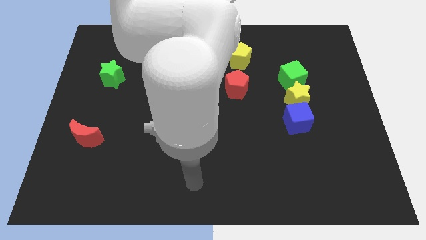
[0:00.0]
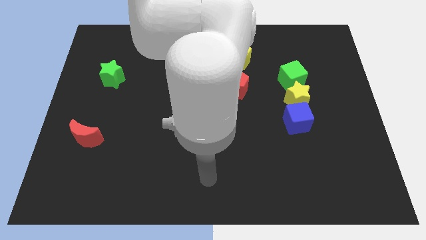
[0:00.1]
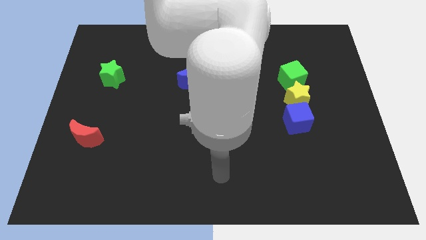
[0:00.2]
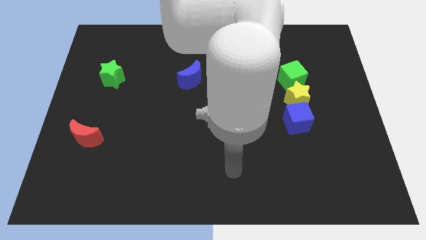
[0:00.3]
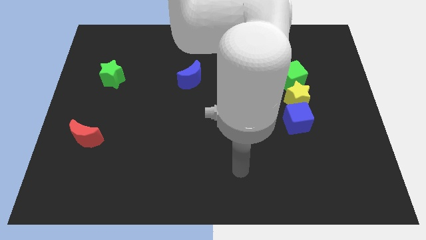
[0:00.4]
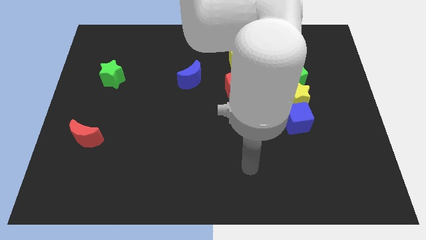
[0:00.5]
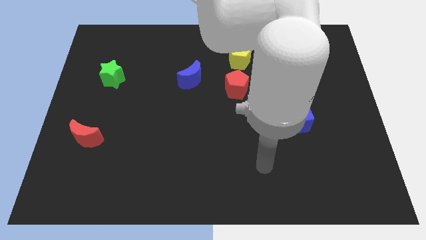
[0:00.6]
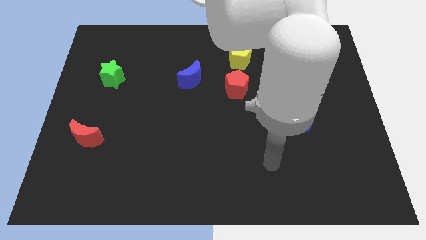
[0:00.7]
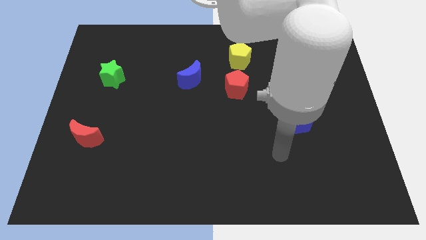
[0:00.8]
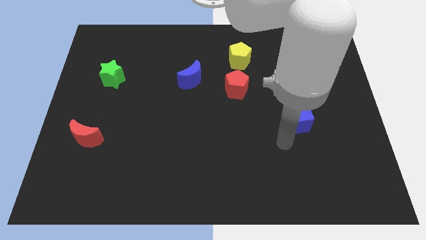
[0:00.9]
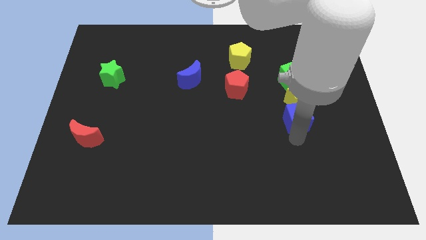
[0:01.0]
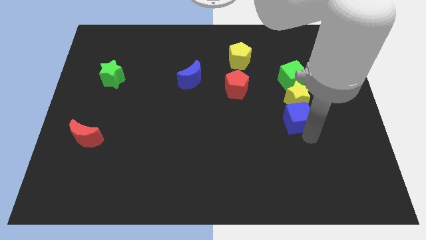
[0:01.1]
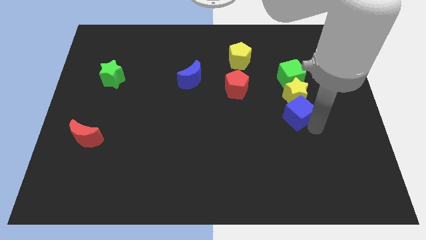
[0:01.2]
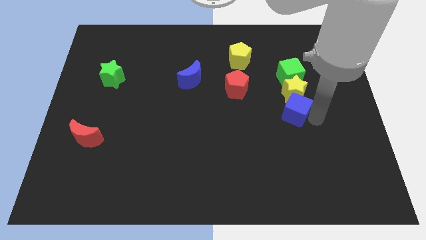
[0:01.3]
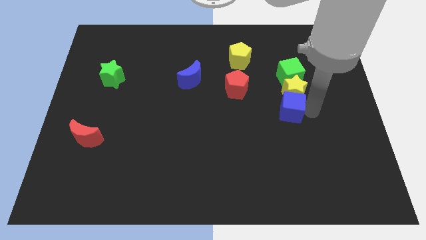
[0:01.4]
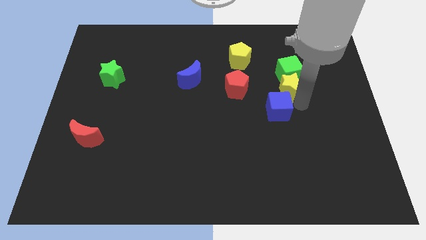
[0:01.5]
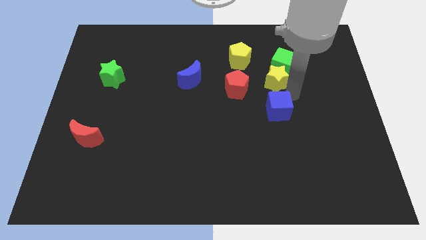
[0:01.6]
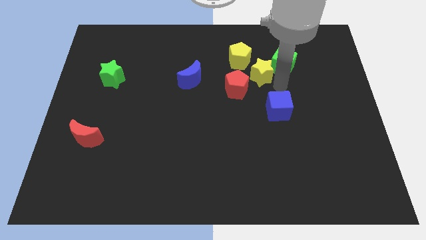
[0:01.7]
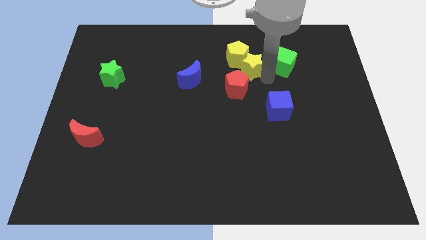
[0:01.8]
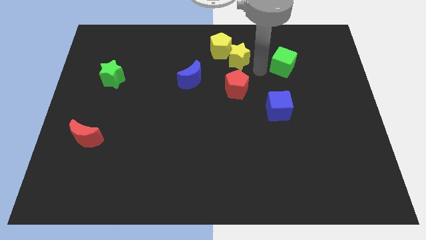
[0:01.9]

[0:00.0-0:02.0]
pull the green cube apart from the yellow star

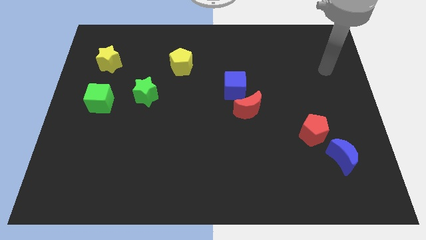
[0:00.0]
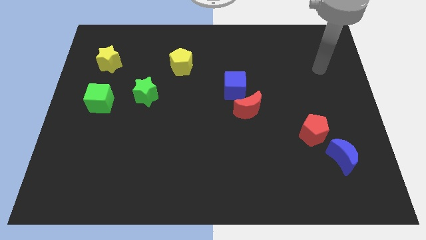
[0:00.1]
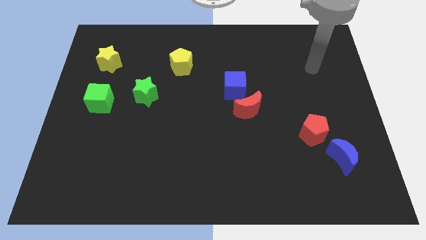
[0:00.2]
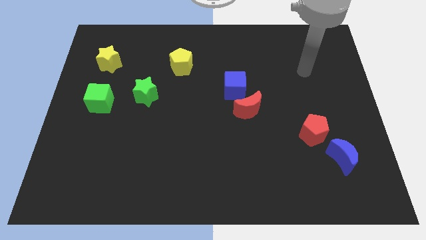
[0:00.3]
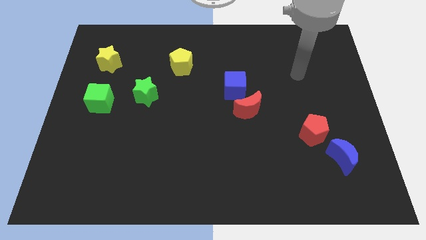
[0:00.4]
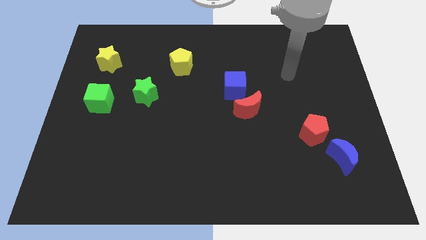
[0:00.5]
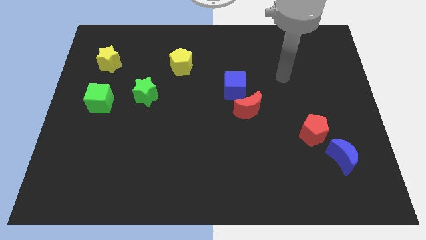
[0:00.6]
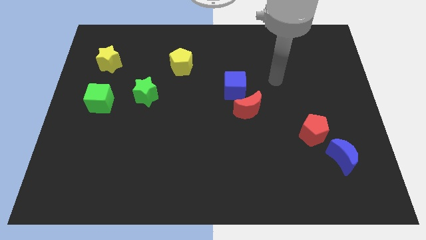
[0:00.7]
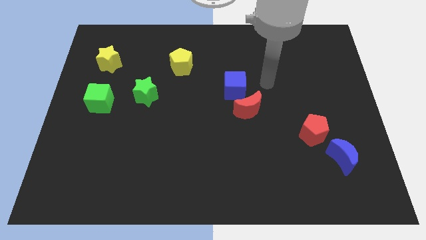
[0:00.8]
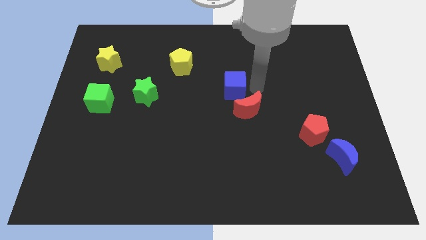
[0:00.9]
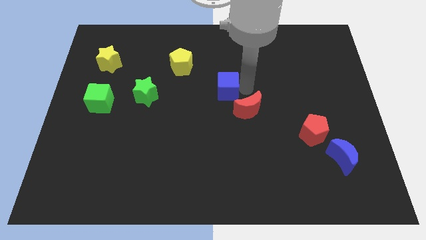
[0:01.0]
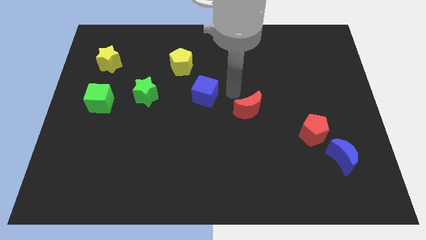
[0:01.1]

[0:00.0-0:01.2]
separate the red moon from the blue cube

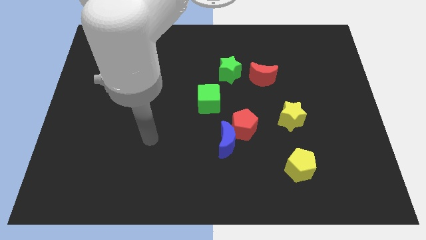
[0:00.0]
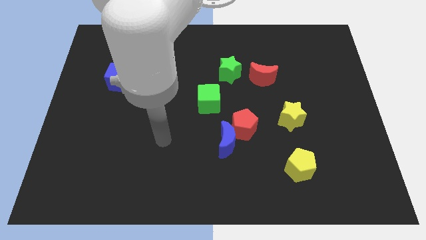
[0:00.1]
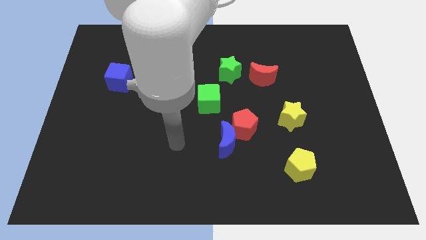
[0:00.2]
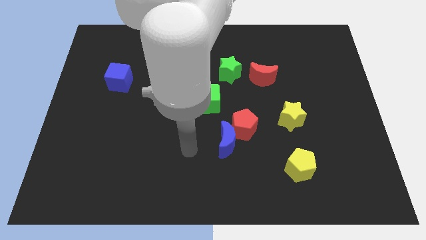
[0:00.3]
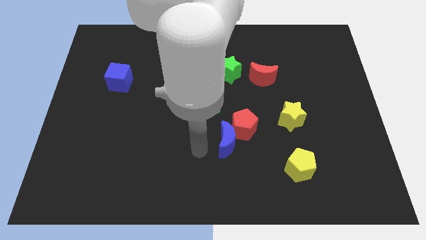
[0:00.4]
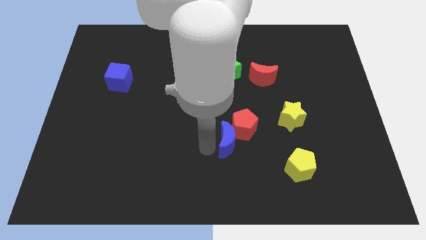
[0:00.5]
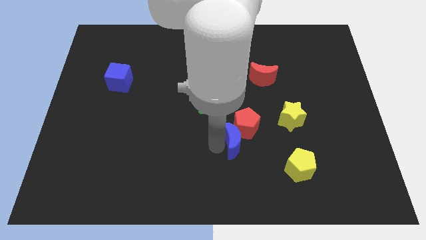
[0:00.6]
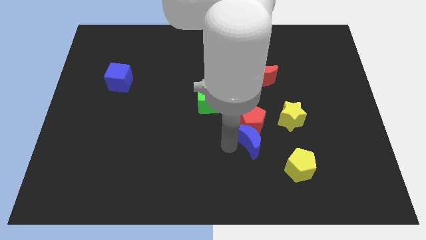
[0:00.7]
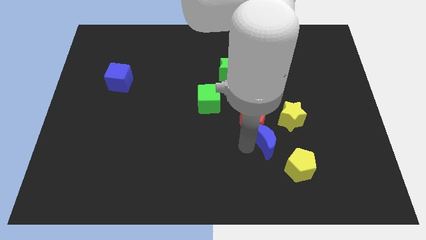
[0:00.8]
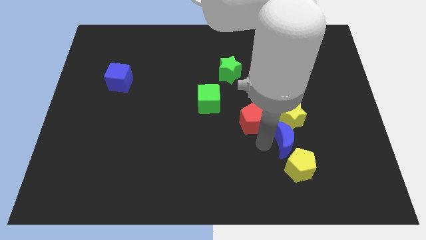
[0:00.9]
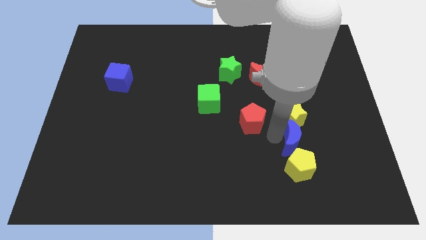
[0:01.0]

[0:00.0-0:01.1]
separate the red pentagon from the blue moon

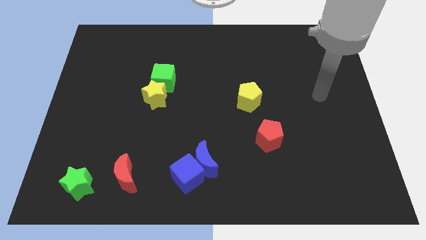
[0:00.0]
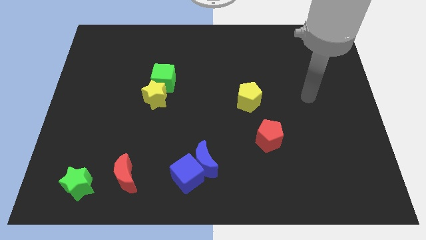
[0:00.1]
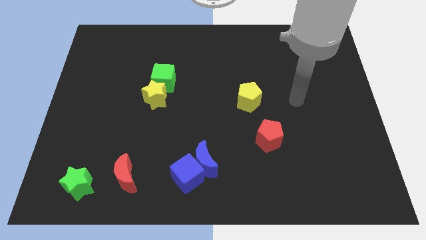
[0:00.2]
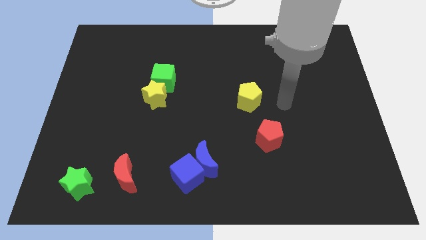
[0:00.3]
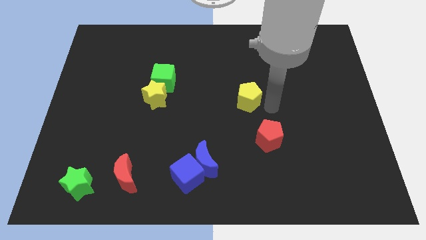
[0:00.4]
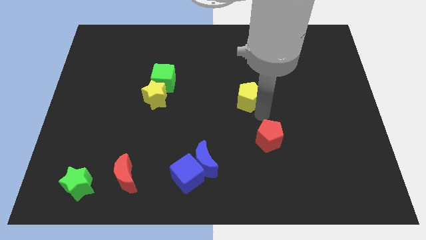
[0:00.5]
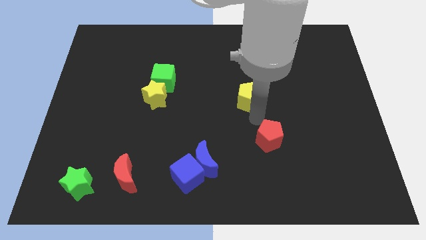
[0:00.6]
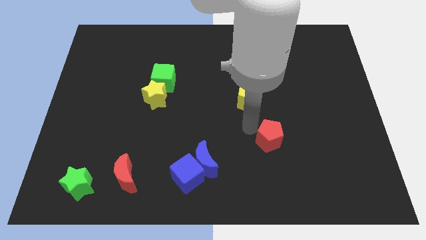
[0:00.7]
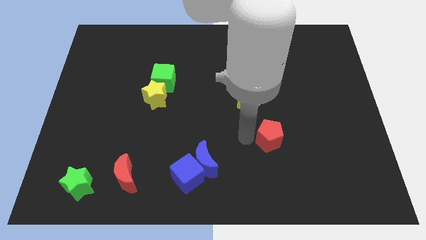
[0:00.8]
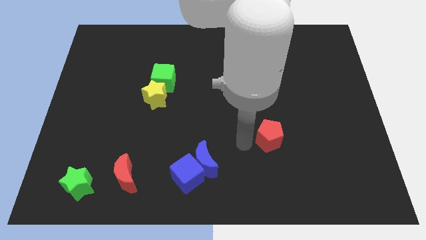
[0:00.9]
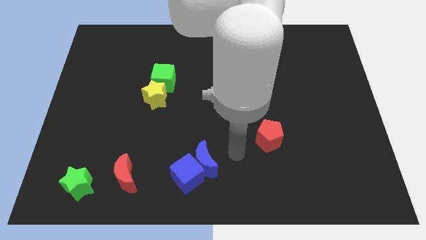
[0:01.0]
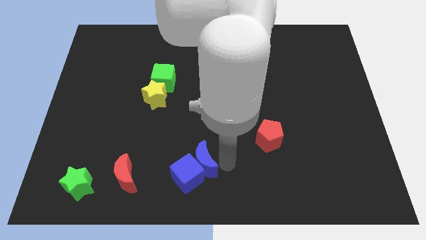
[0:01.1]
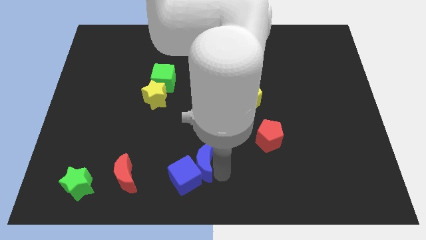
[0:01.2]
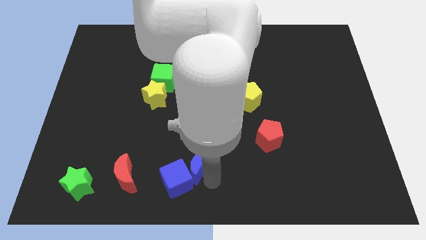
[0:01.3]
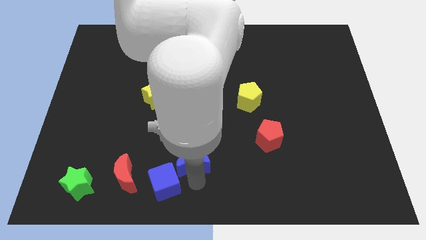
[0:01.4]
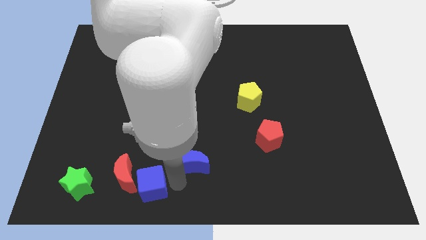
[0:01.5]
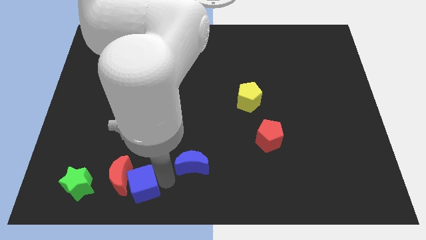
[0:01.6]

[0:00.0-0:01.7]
move the blue moon away from the blue cube

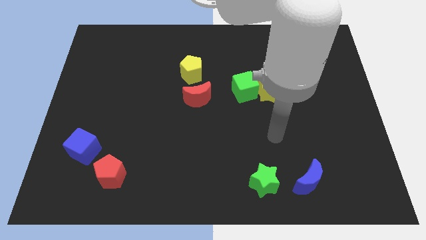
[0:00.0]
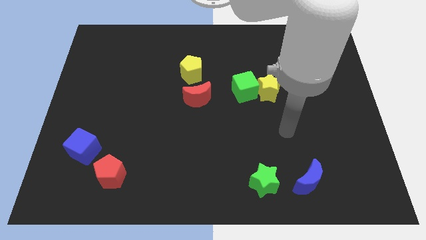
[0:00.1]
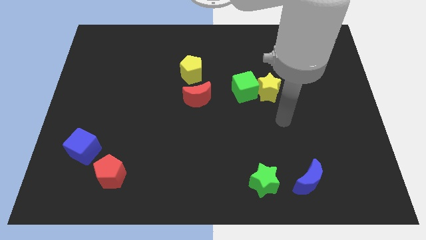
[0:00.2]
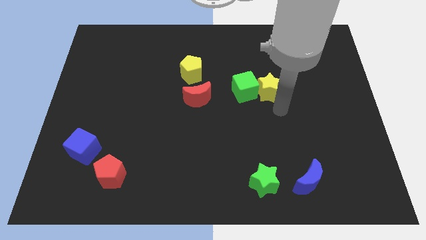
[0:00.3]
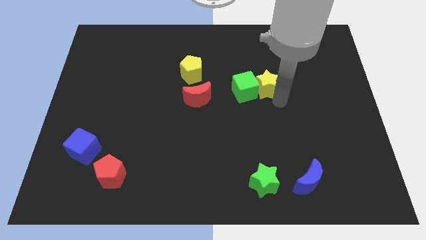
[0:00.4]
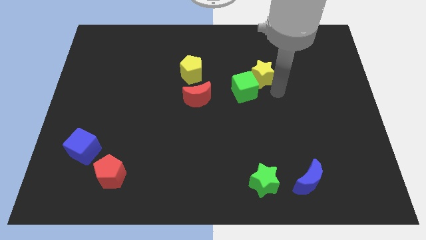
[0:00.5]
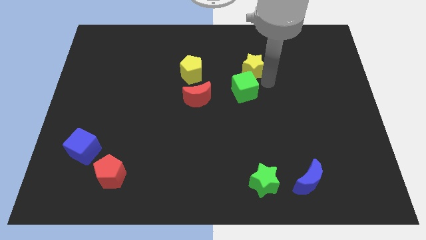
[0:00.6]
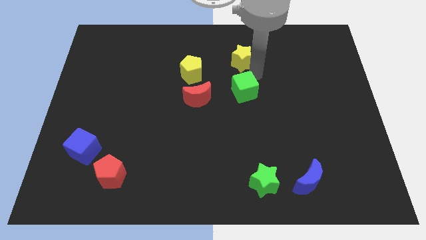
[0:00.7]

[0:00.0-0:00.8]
move the green cube away from the yellow star

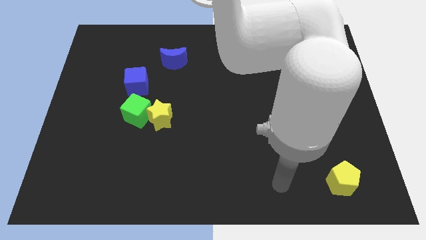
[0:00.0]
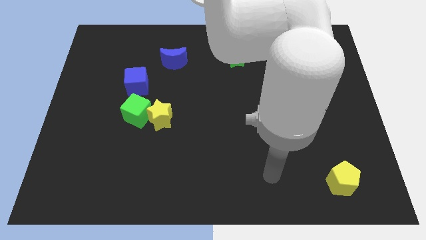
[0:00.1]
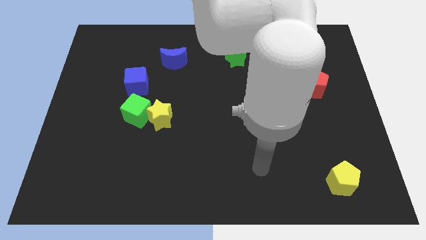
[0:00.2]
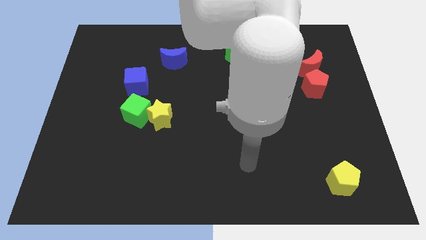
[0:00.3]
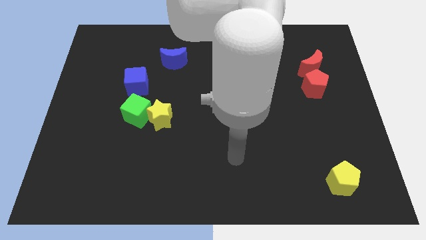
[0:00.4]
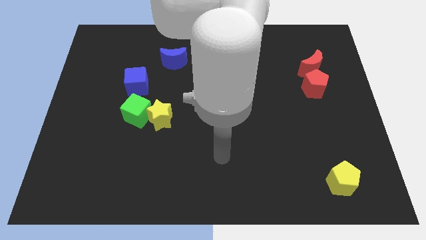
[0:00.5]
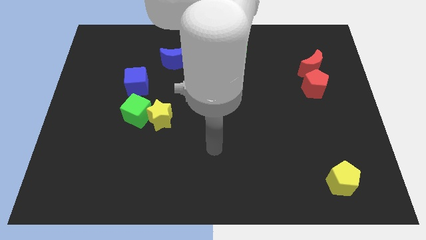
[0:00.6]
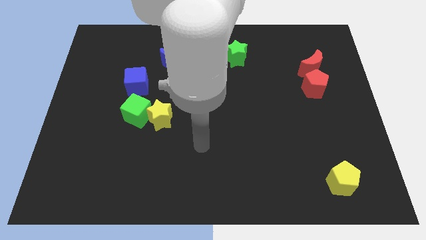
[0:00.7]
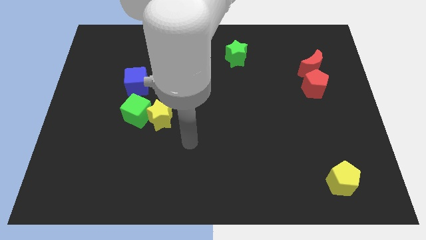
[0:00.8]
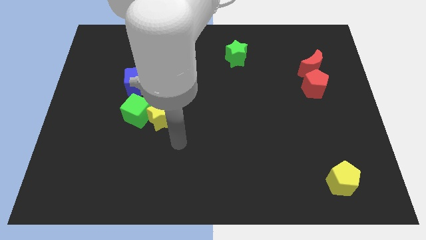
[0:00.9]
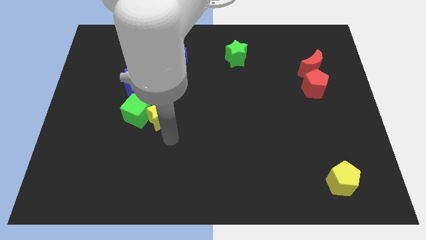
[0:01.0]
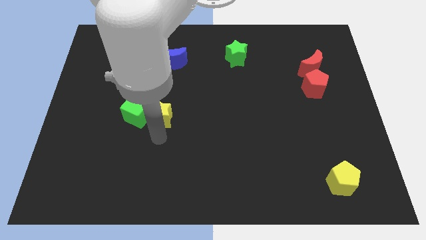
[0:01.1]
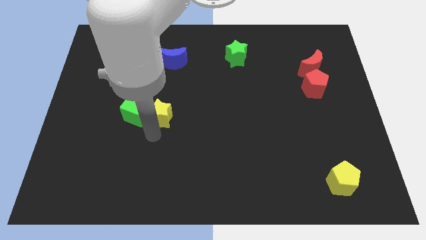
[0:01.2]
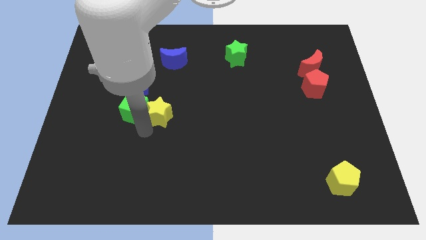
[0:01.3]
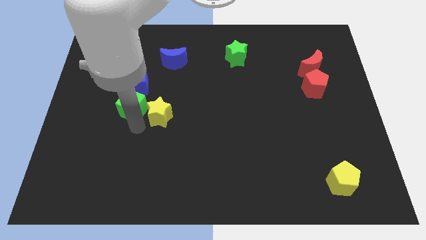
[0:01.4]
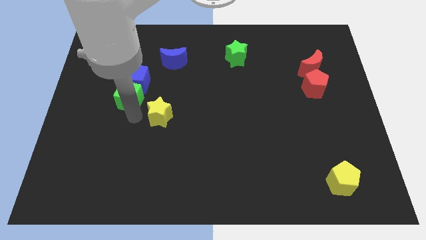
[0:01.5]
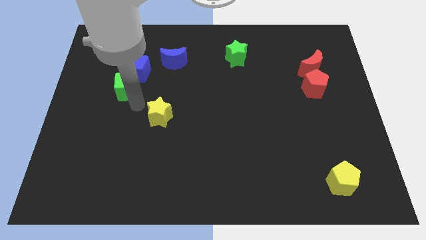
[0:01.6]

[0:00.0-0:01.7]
separate the yellow star from the green cube

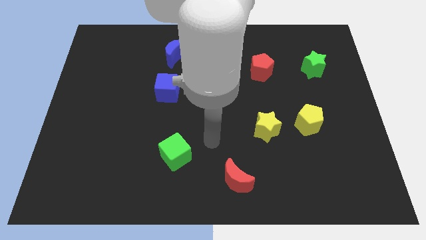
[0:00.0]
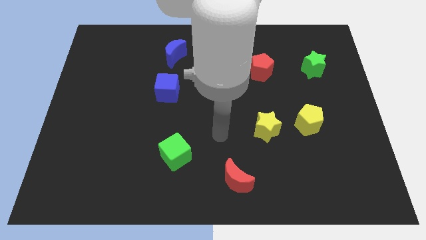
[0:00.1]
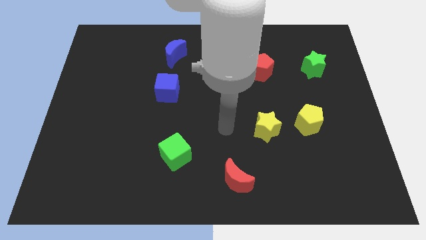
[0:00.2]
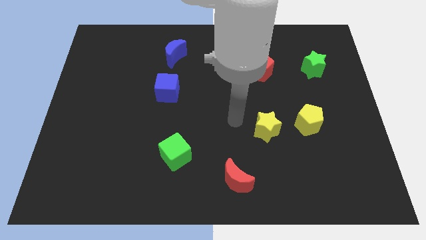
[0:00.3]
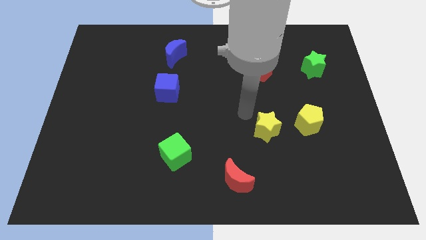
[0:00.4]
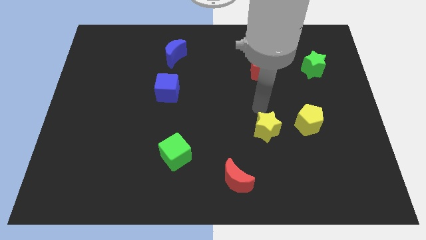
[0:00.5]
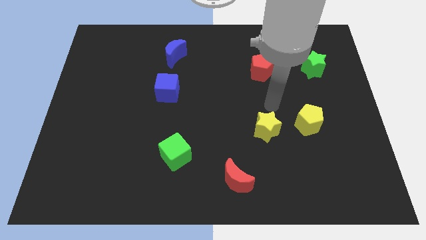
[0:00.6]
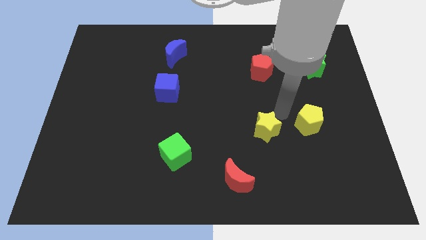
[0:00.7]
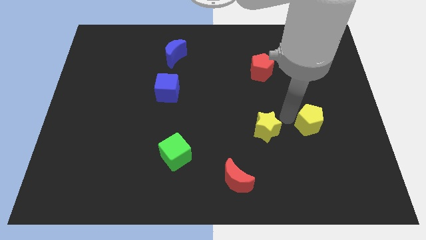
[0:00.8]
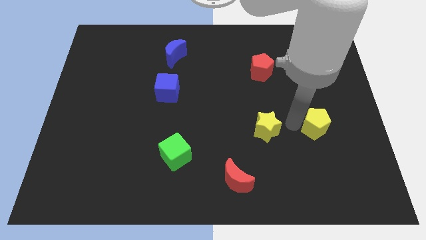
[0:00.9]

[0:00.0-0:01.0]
pull the yellow star apart from the yellow pentagon

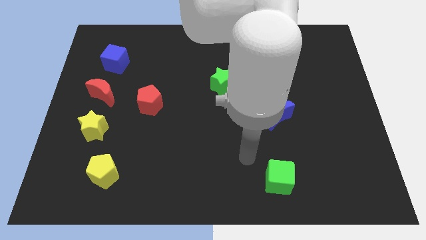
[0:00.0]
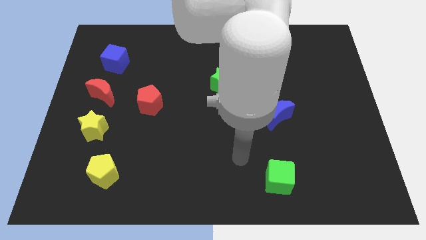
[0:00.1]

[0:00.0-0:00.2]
pull the red moon apart from the yellow star
